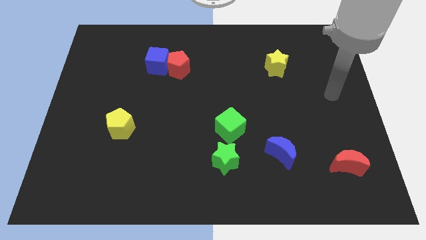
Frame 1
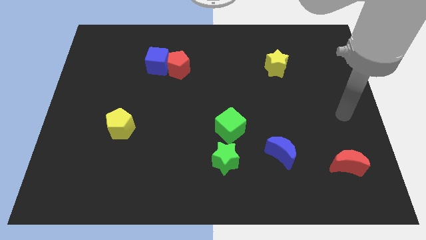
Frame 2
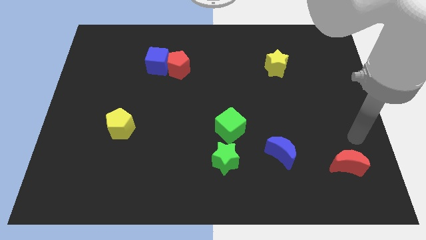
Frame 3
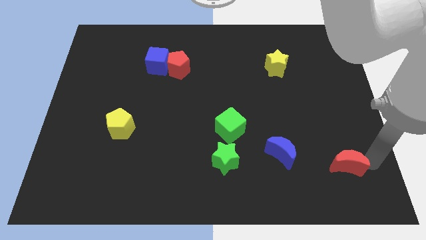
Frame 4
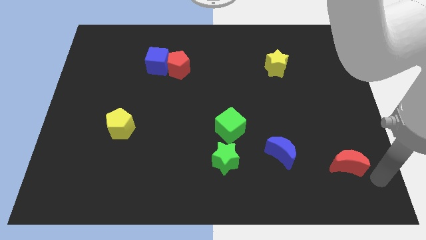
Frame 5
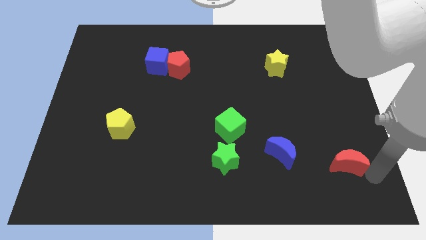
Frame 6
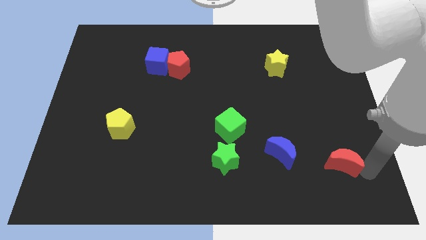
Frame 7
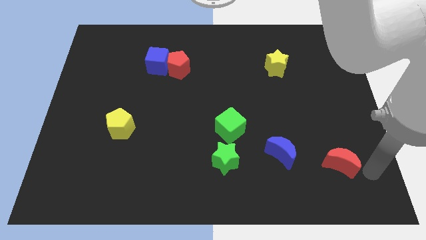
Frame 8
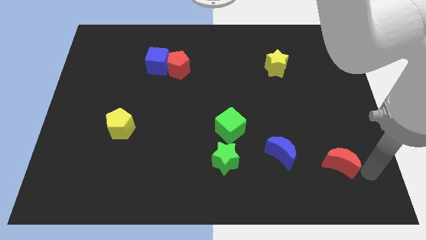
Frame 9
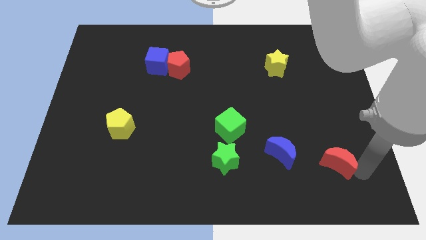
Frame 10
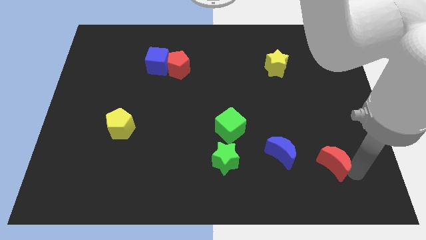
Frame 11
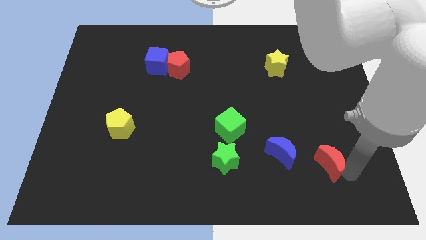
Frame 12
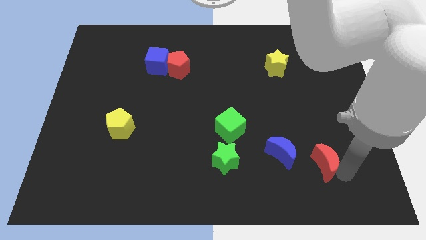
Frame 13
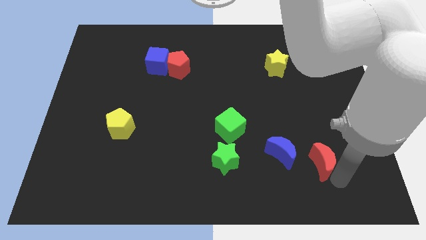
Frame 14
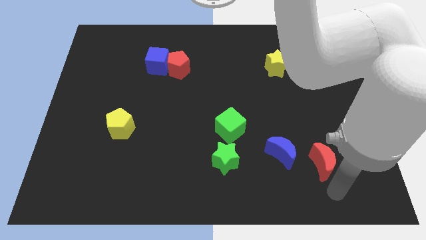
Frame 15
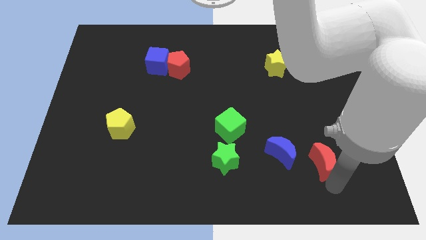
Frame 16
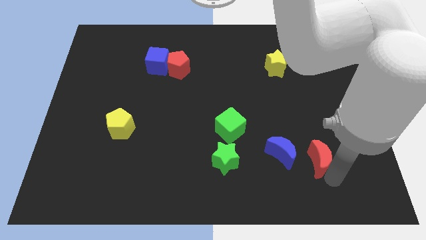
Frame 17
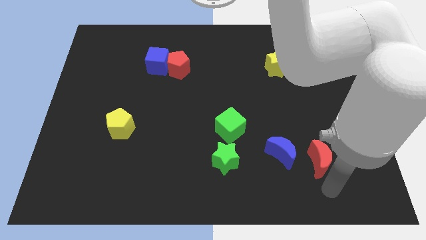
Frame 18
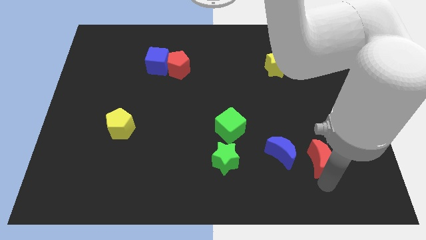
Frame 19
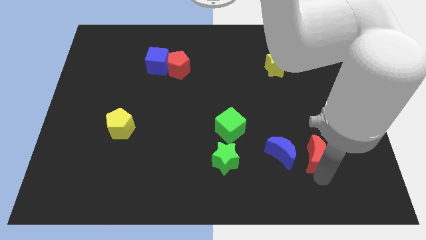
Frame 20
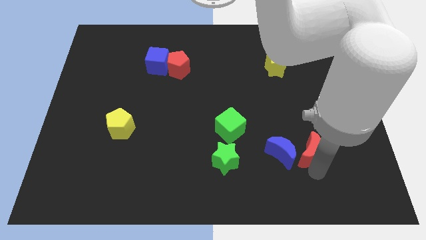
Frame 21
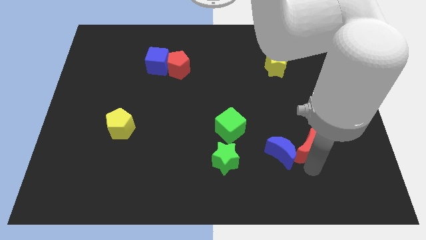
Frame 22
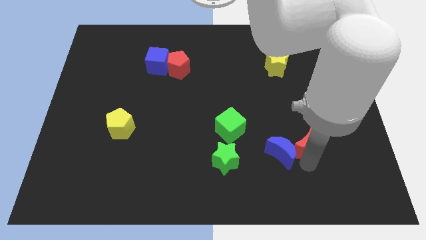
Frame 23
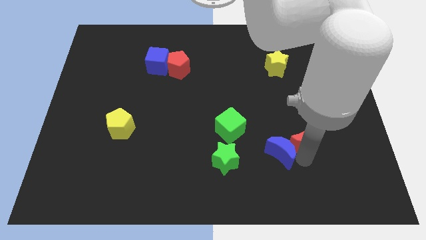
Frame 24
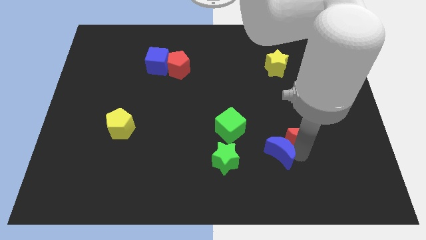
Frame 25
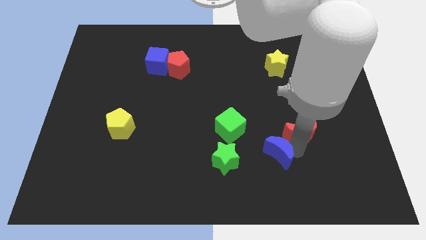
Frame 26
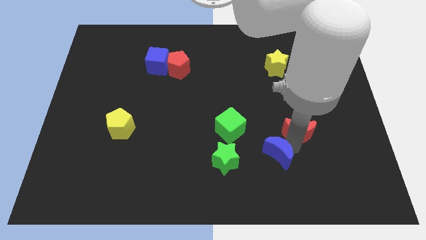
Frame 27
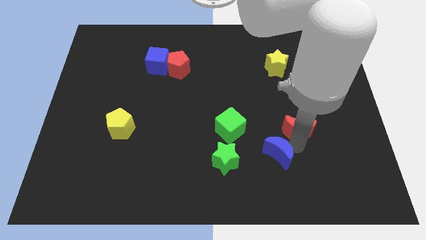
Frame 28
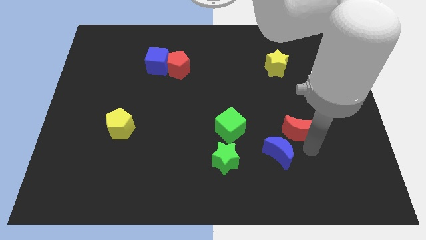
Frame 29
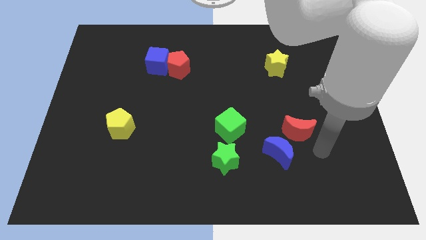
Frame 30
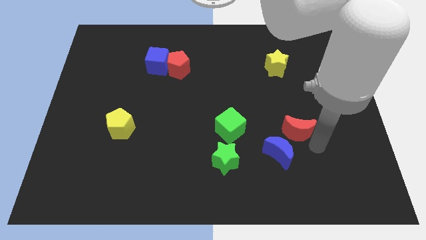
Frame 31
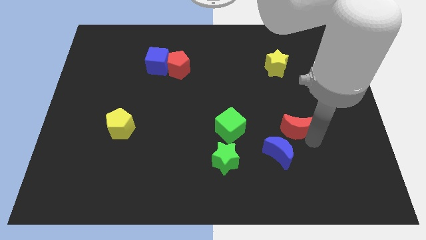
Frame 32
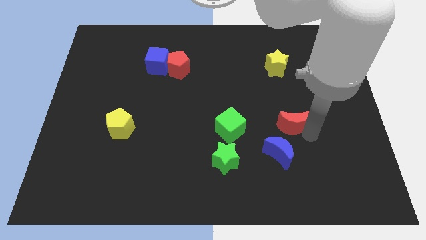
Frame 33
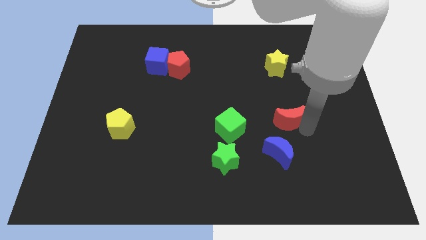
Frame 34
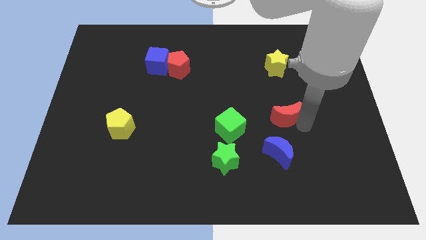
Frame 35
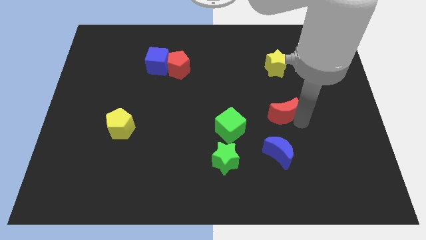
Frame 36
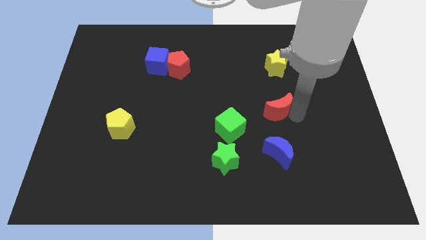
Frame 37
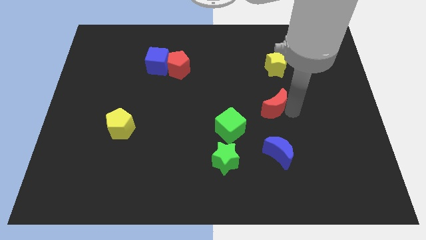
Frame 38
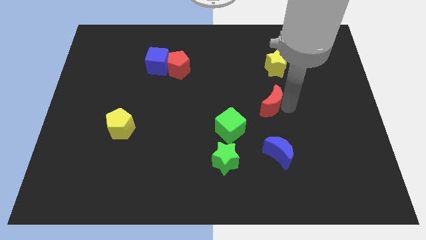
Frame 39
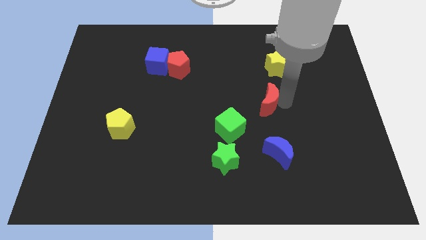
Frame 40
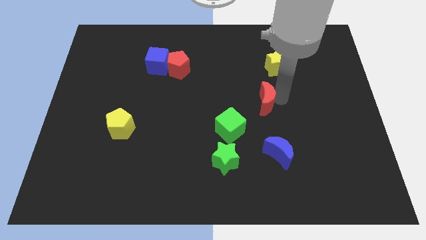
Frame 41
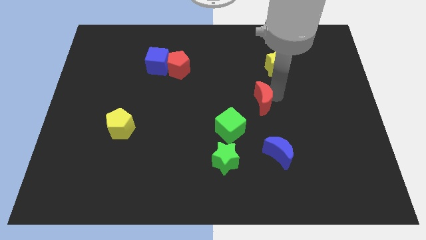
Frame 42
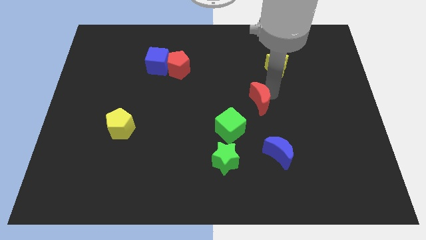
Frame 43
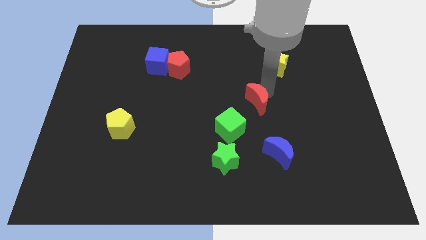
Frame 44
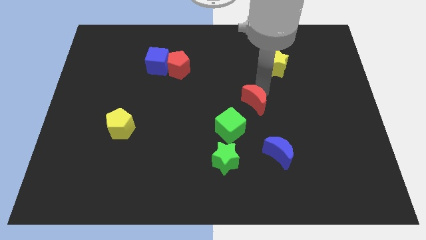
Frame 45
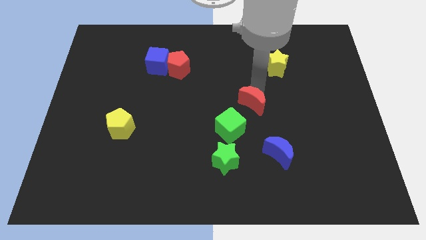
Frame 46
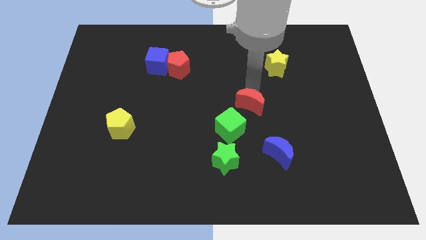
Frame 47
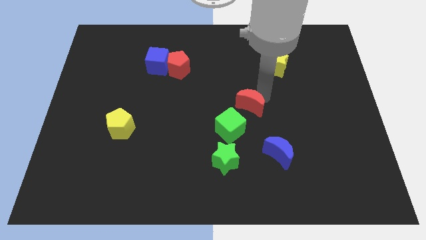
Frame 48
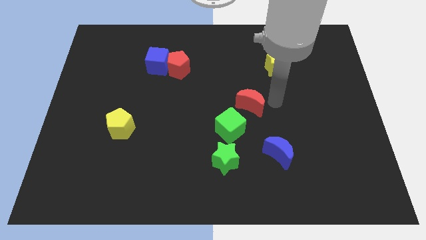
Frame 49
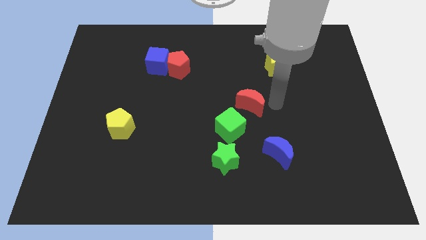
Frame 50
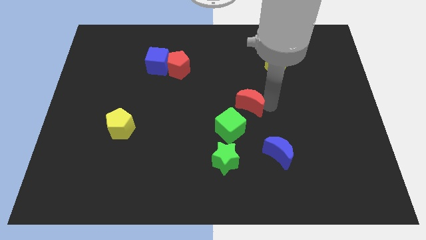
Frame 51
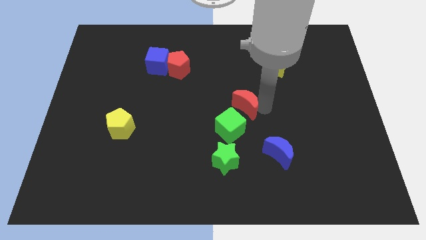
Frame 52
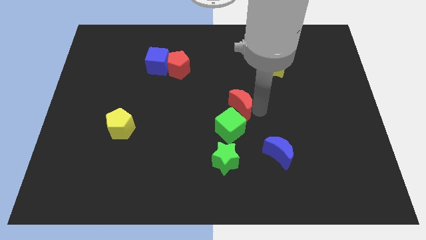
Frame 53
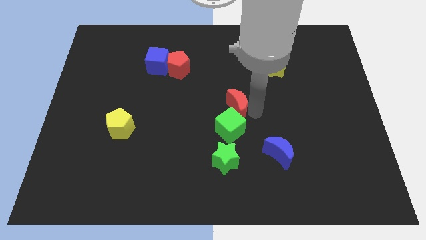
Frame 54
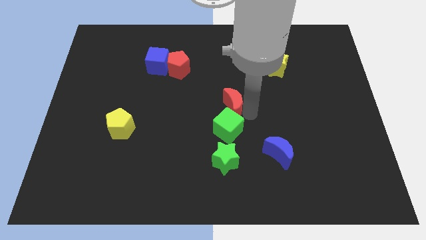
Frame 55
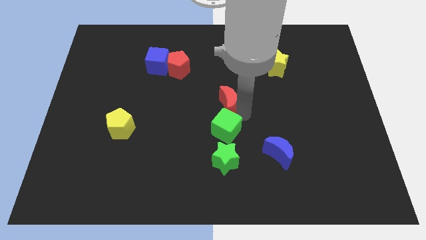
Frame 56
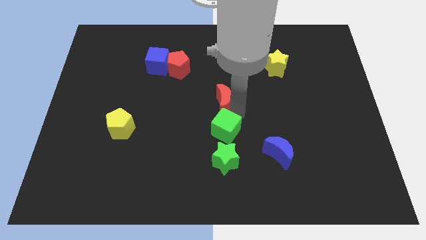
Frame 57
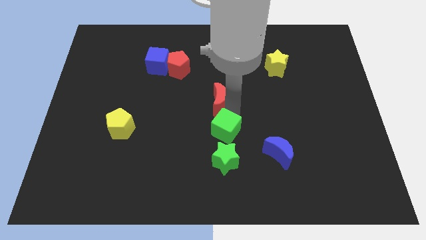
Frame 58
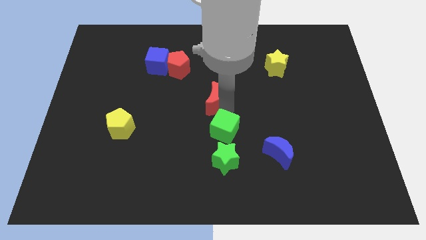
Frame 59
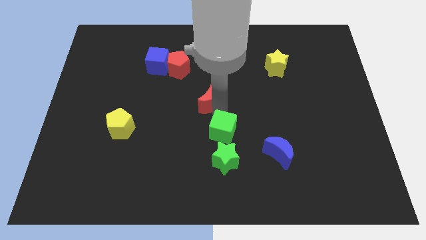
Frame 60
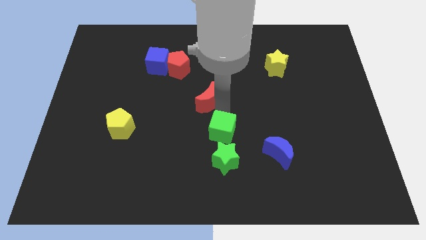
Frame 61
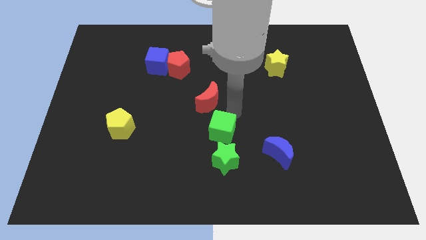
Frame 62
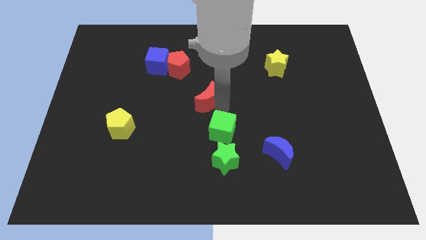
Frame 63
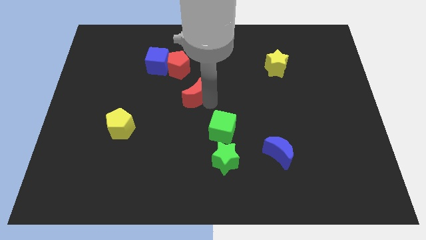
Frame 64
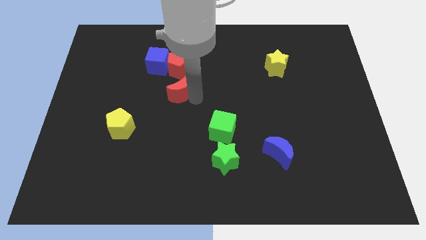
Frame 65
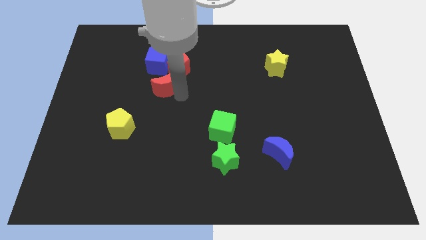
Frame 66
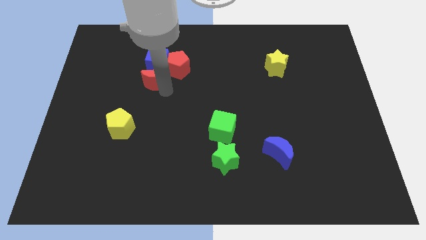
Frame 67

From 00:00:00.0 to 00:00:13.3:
move the red moon to the blue cube
